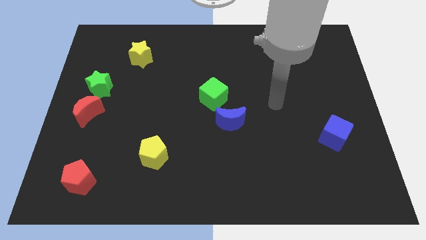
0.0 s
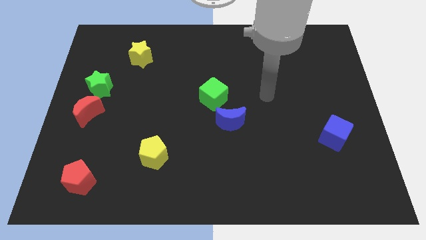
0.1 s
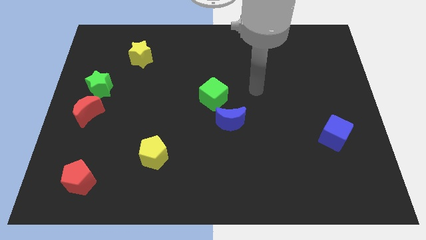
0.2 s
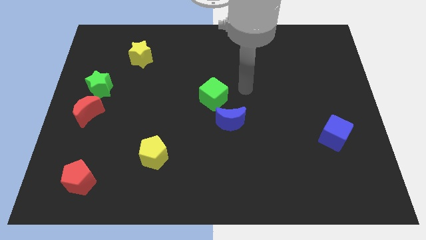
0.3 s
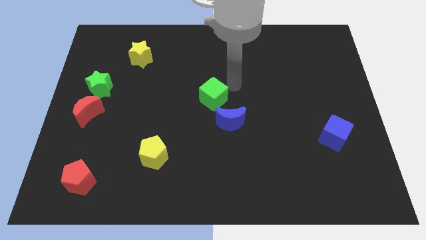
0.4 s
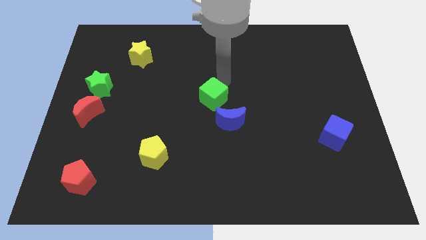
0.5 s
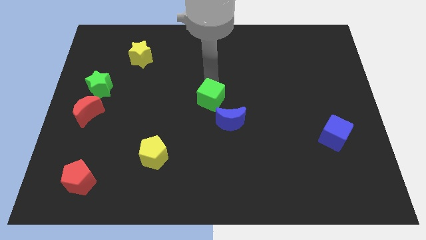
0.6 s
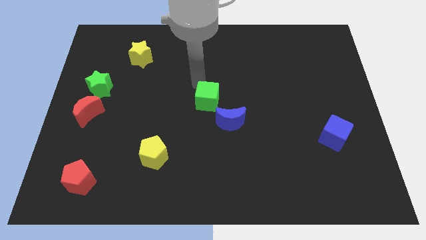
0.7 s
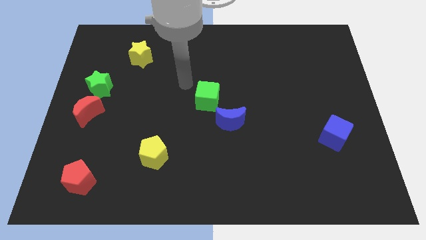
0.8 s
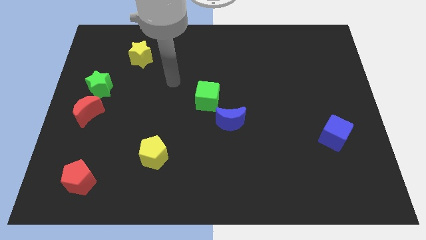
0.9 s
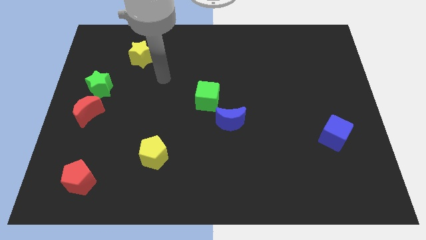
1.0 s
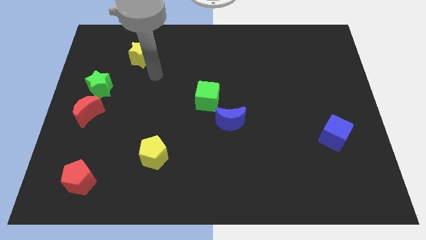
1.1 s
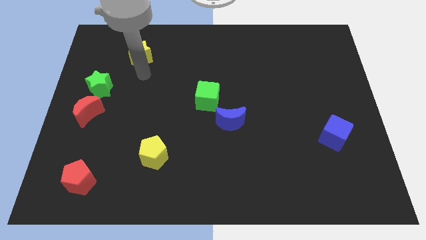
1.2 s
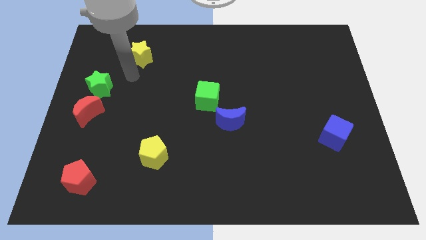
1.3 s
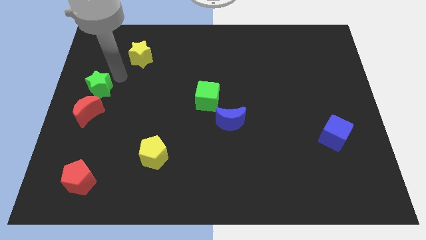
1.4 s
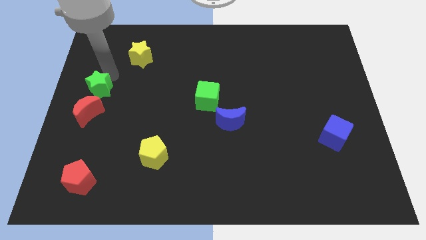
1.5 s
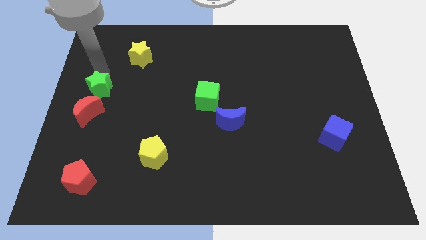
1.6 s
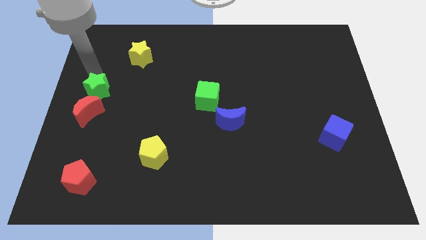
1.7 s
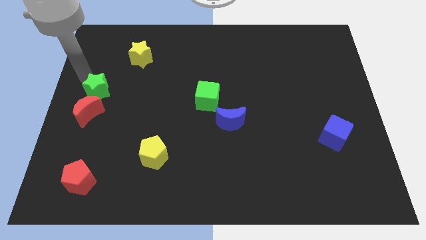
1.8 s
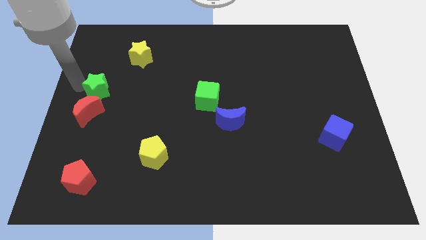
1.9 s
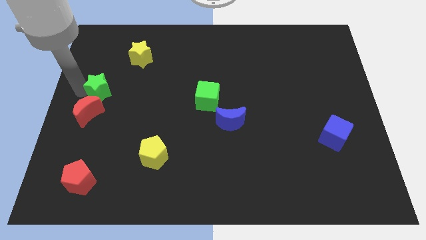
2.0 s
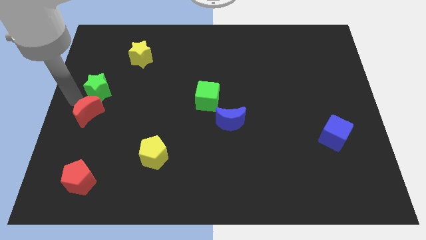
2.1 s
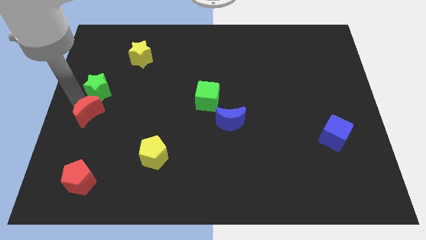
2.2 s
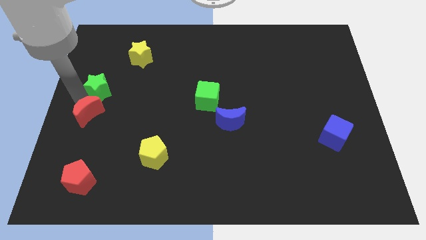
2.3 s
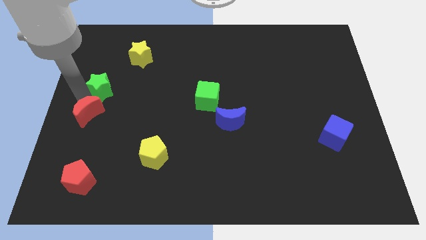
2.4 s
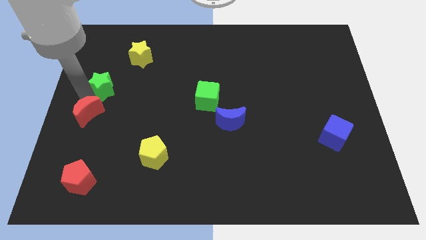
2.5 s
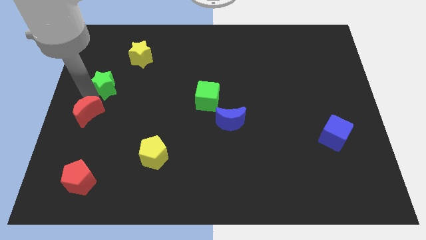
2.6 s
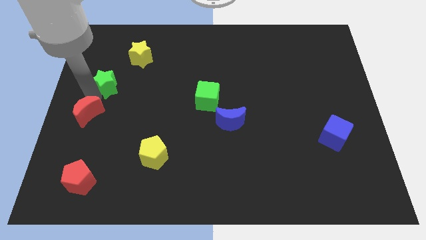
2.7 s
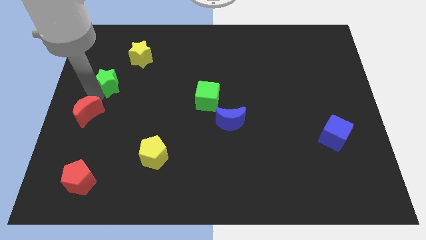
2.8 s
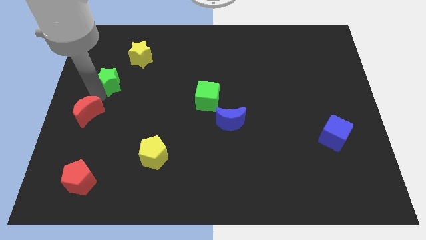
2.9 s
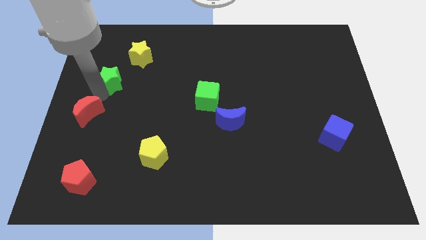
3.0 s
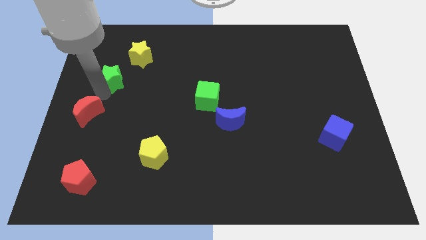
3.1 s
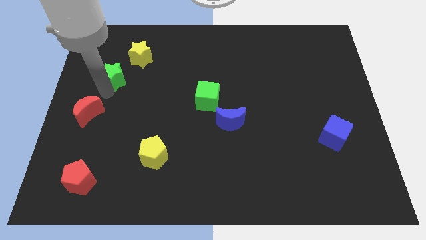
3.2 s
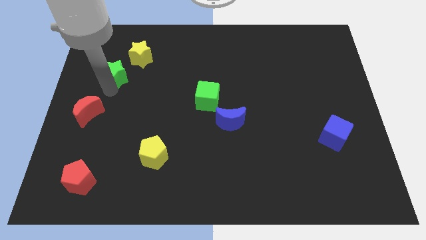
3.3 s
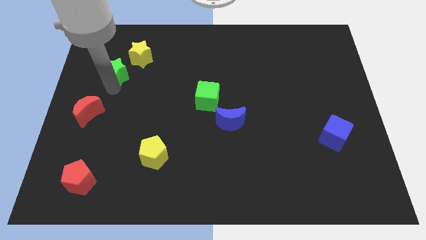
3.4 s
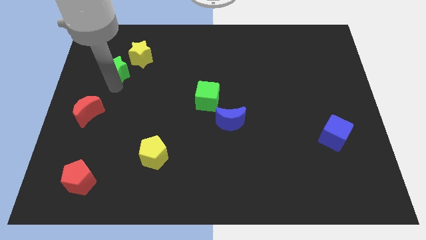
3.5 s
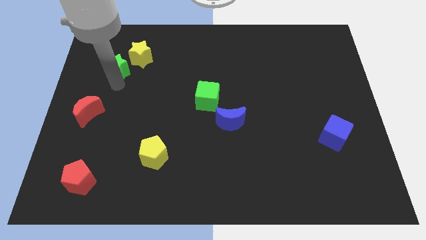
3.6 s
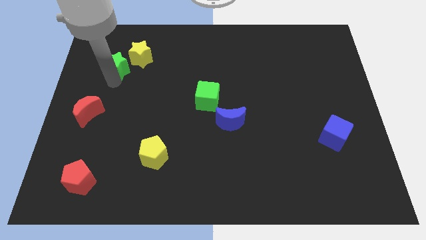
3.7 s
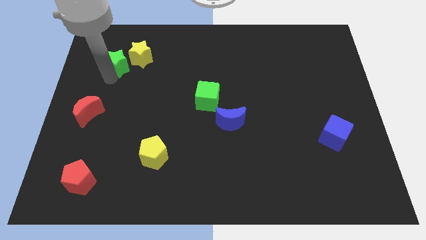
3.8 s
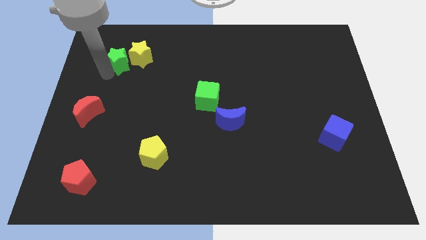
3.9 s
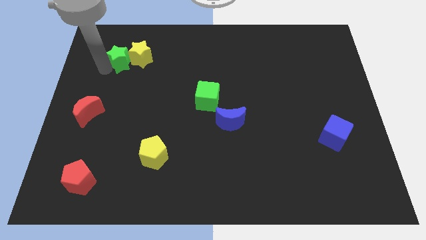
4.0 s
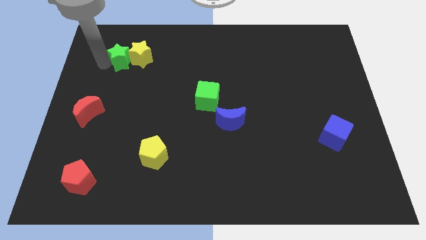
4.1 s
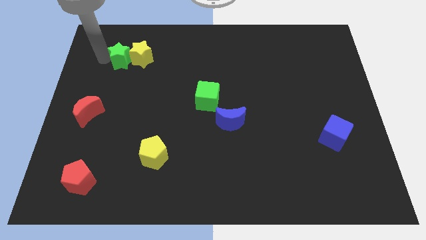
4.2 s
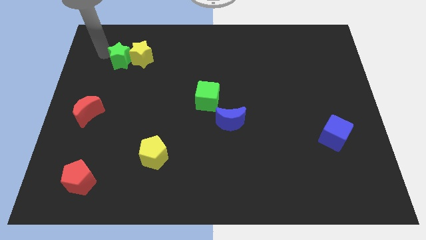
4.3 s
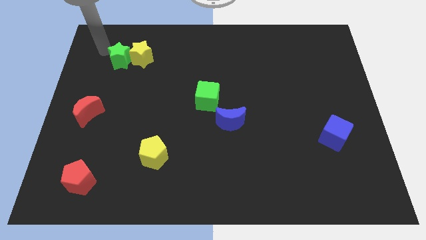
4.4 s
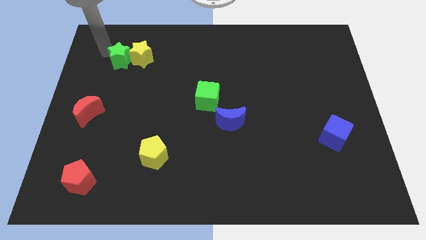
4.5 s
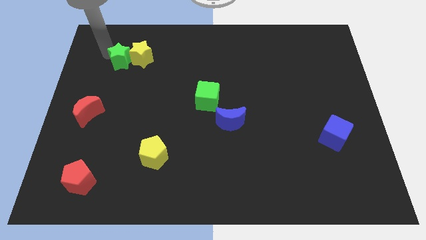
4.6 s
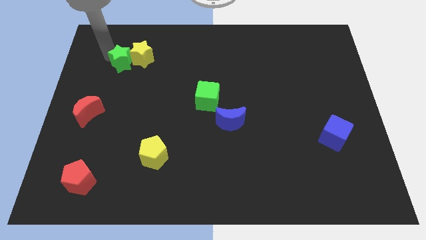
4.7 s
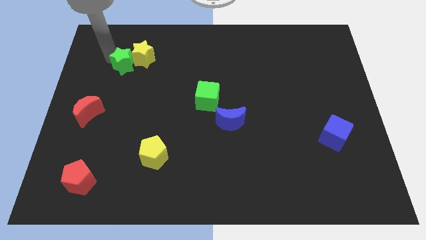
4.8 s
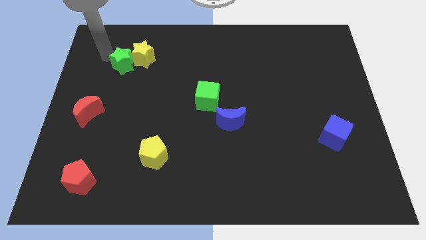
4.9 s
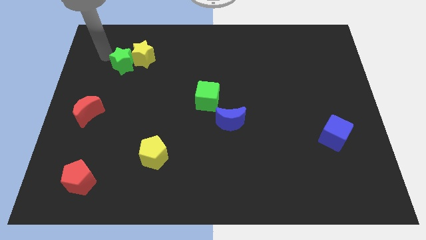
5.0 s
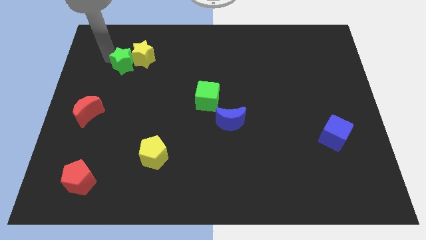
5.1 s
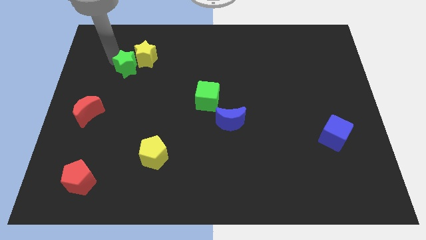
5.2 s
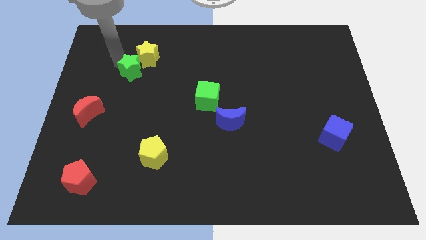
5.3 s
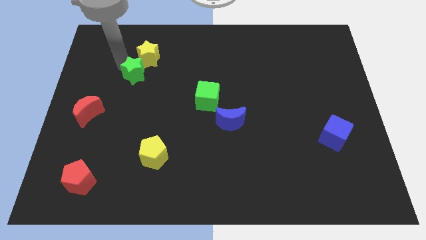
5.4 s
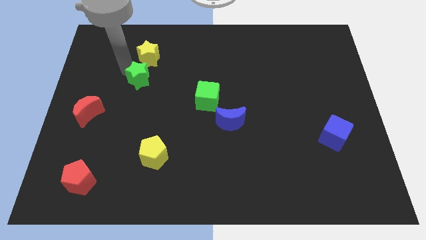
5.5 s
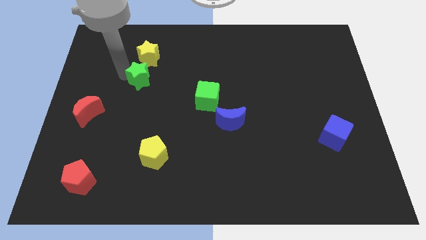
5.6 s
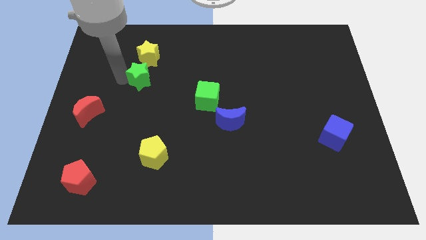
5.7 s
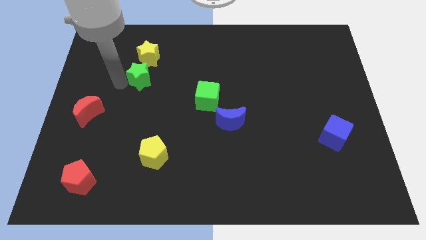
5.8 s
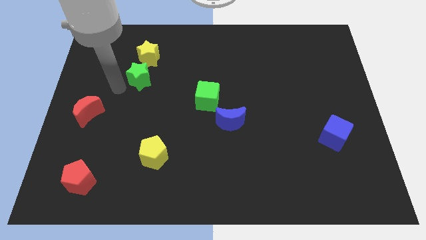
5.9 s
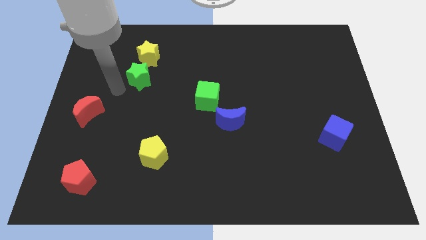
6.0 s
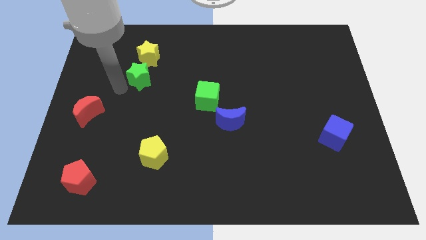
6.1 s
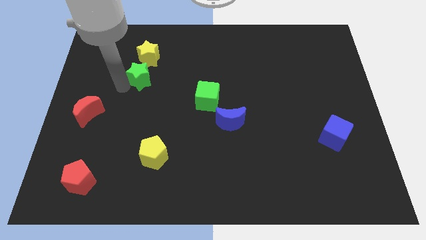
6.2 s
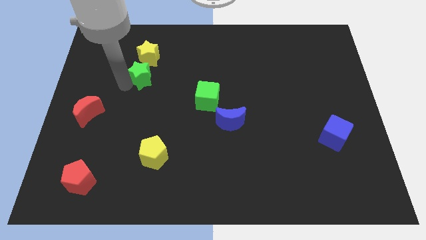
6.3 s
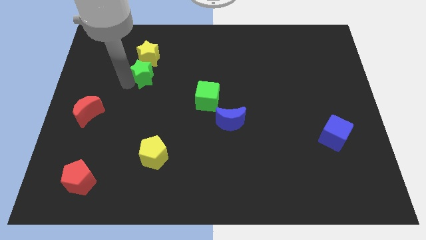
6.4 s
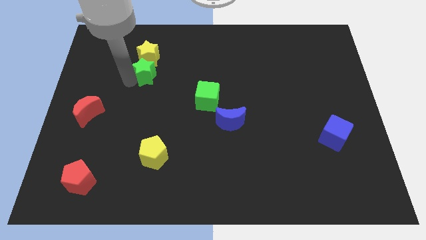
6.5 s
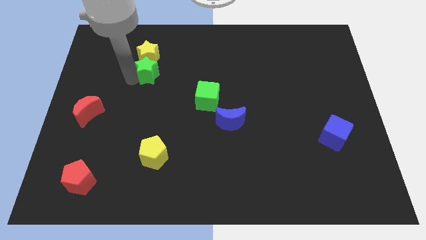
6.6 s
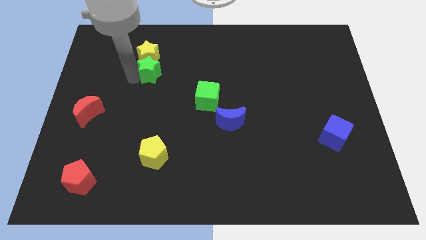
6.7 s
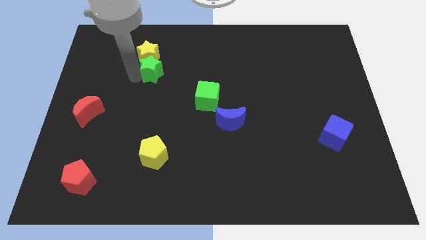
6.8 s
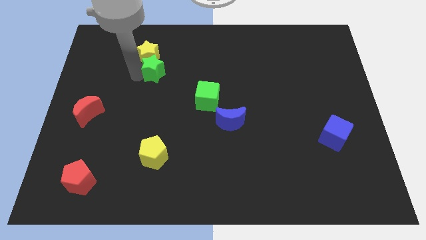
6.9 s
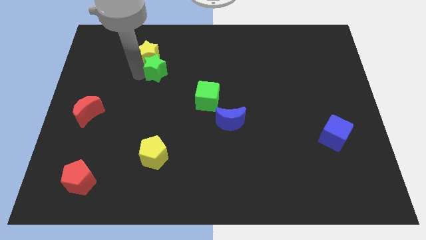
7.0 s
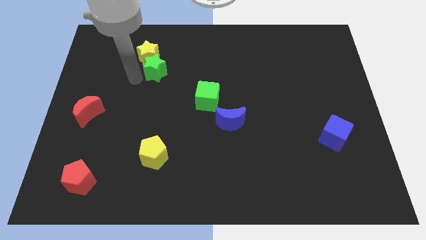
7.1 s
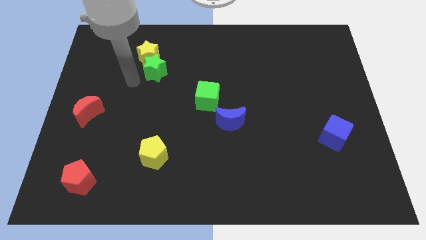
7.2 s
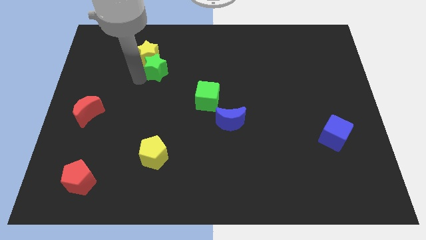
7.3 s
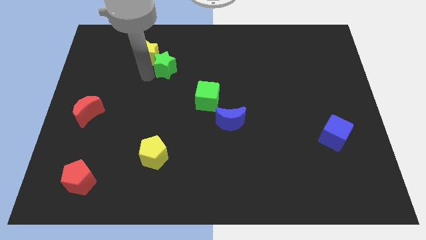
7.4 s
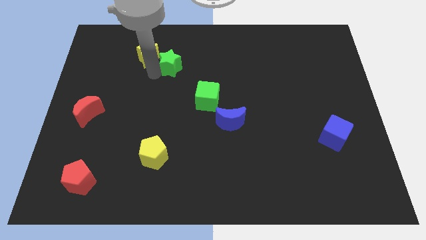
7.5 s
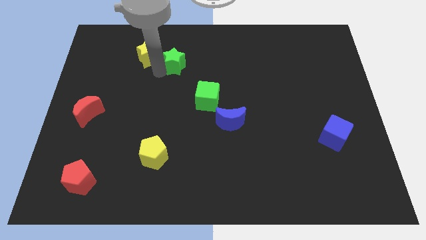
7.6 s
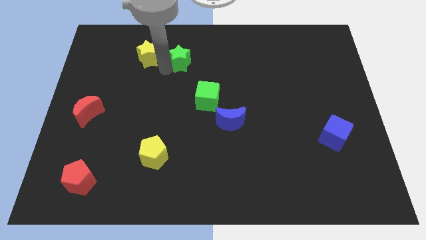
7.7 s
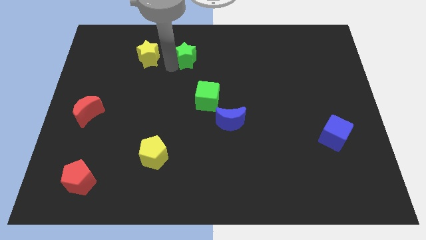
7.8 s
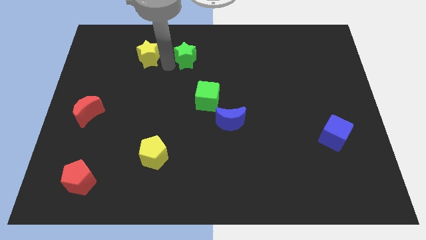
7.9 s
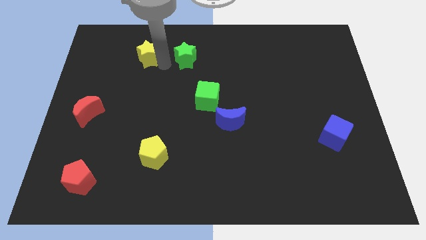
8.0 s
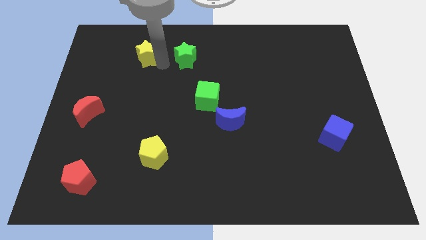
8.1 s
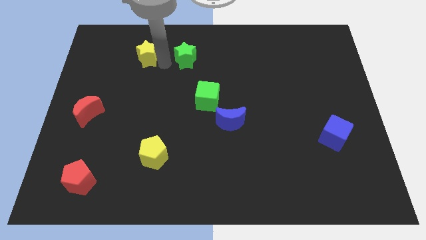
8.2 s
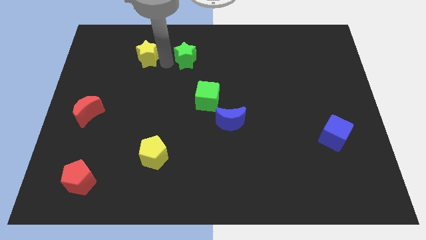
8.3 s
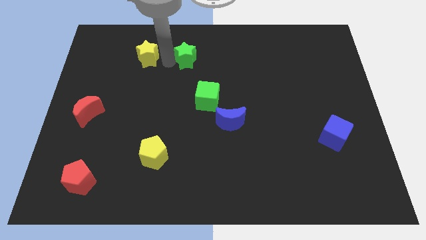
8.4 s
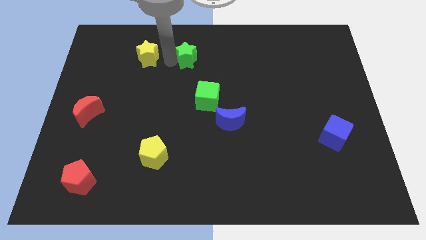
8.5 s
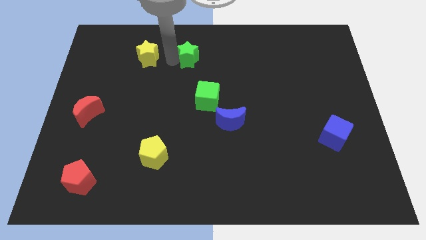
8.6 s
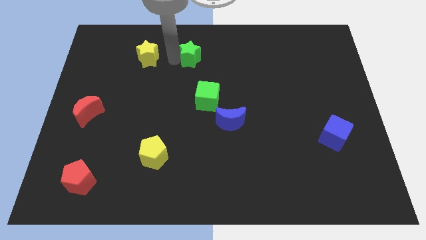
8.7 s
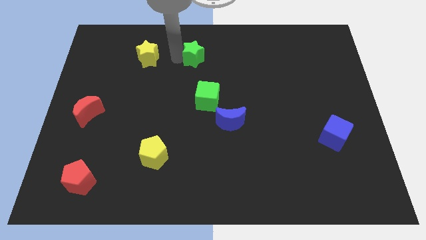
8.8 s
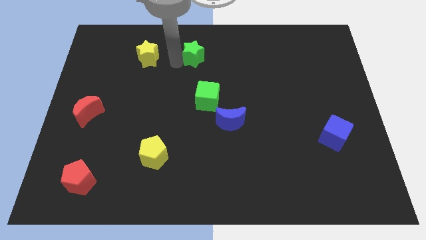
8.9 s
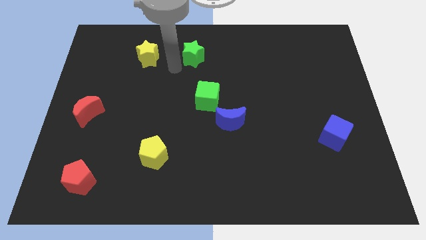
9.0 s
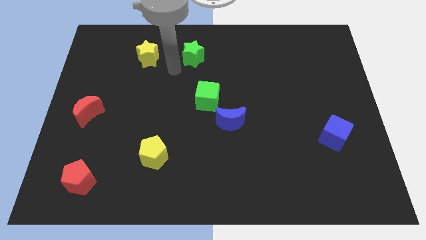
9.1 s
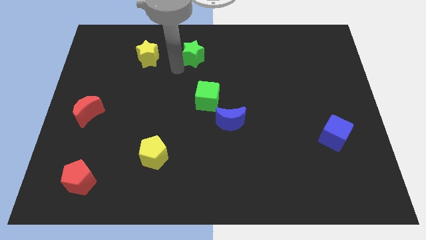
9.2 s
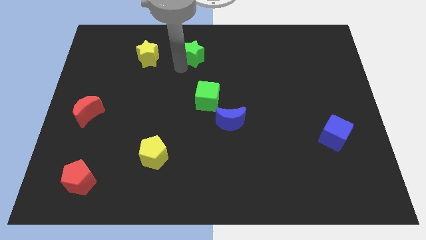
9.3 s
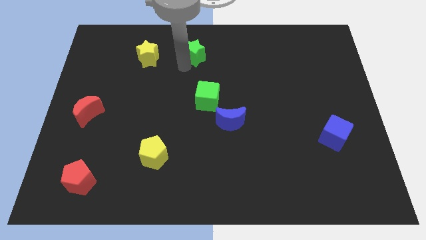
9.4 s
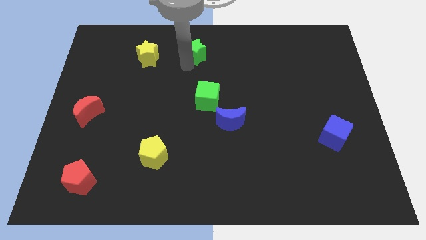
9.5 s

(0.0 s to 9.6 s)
move the green star to the towards your base
